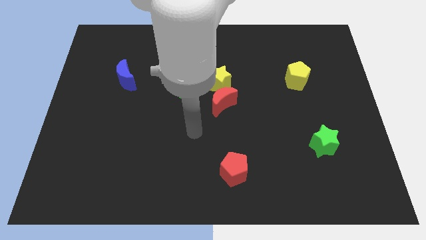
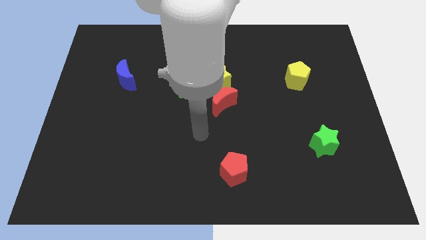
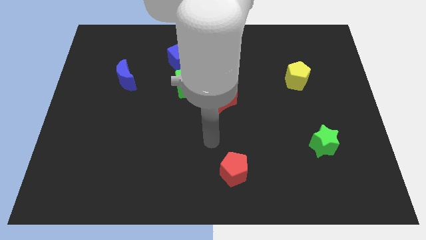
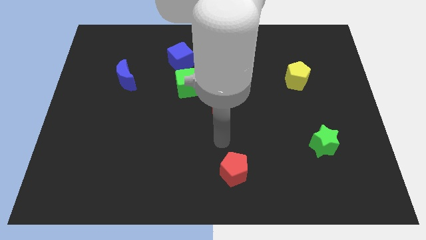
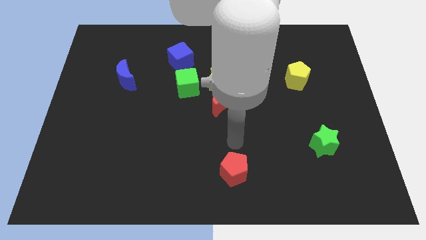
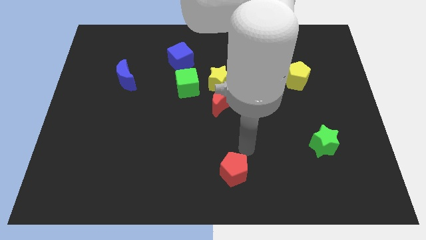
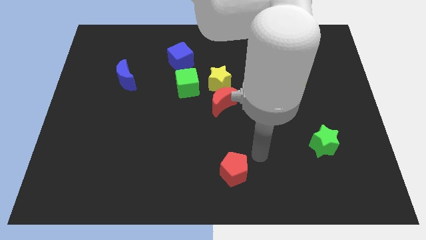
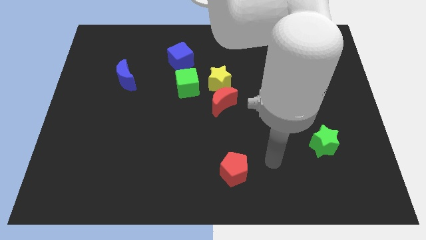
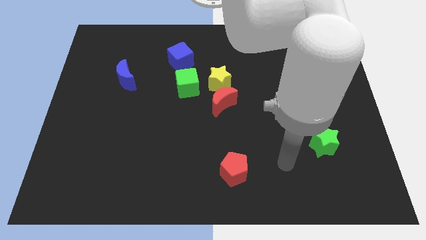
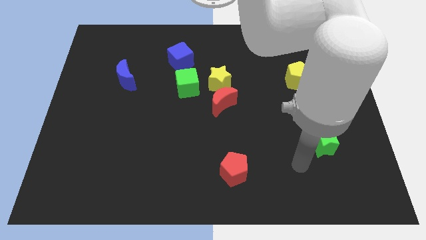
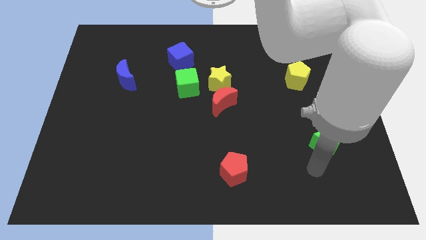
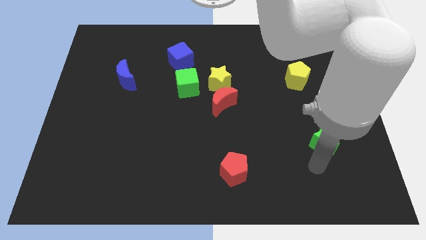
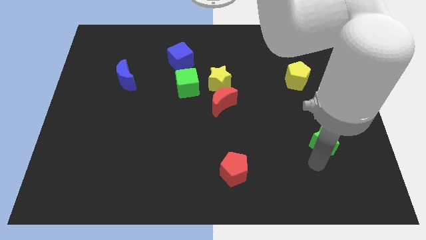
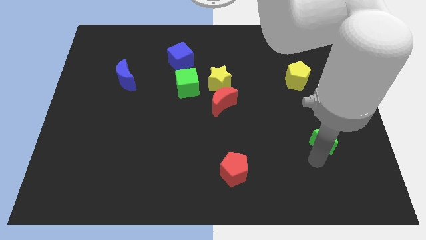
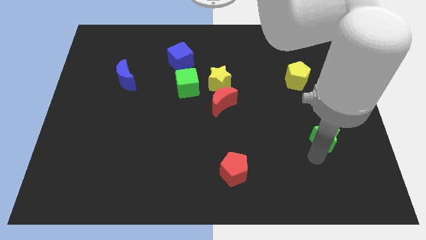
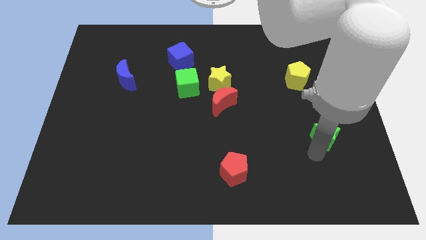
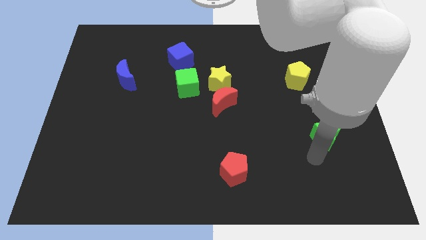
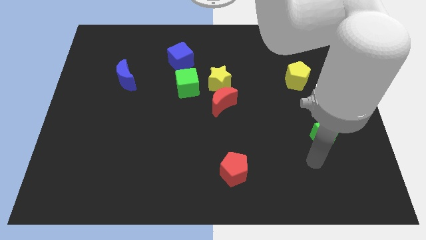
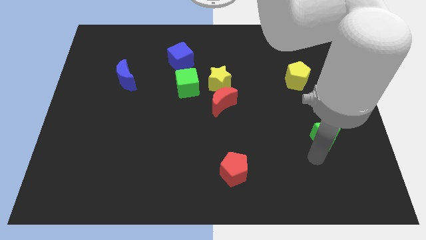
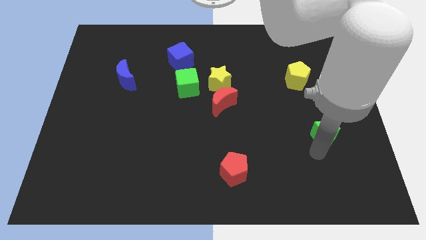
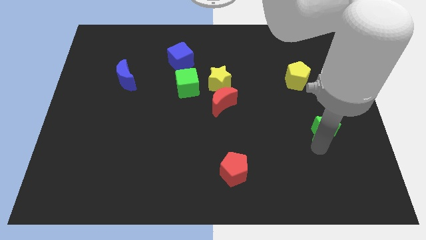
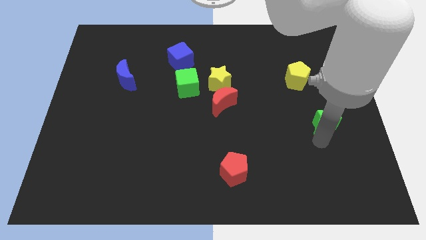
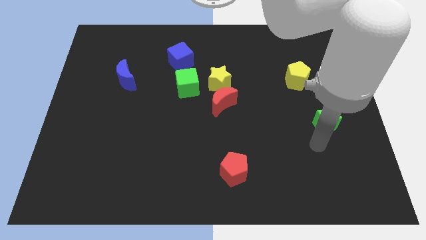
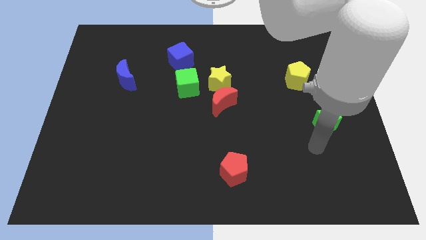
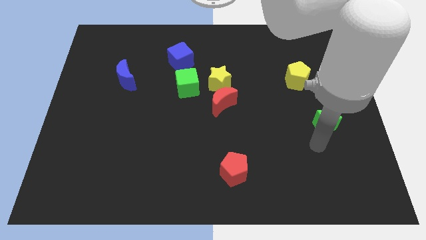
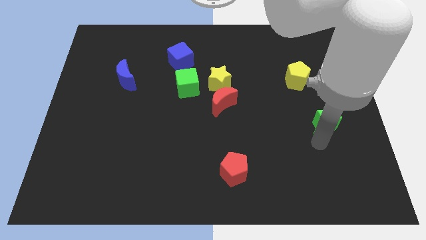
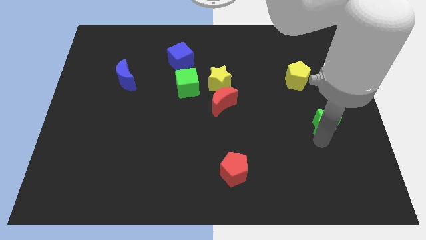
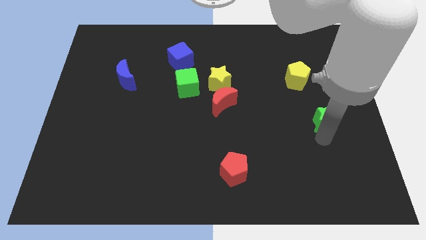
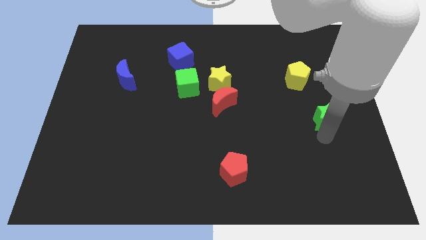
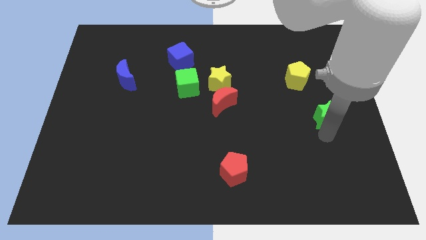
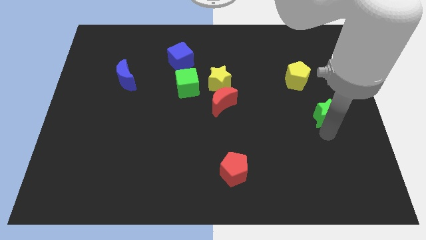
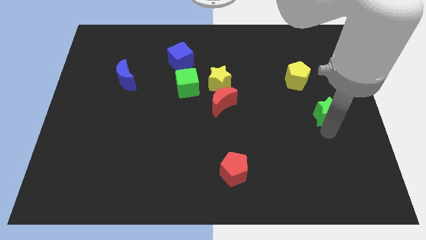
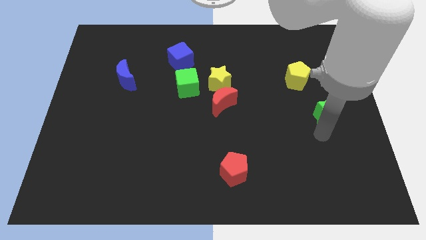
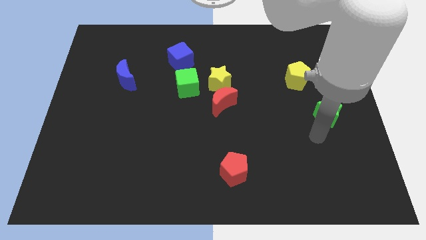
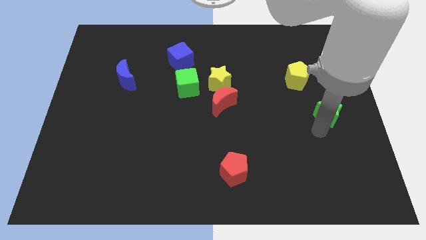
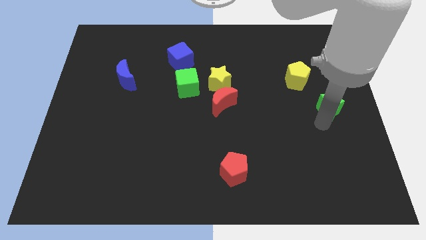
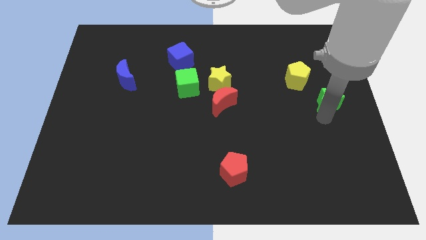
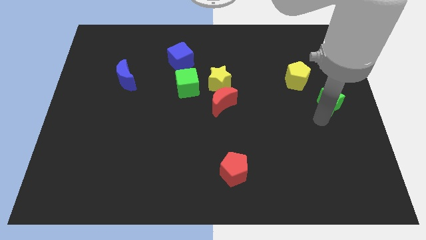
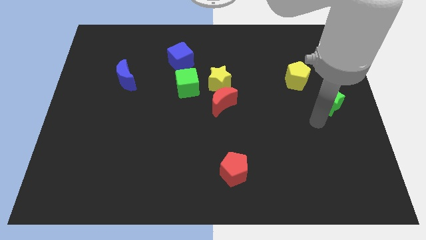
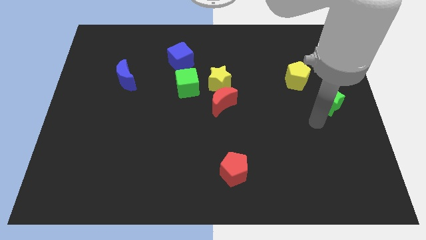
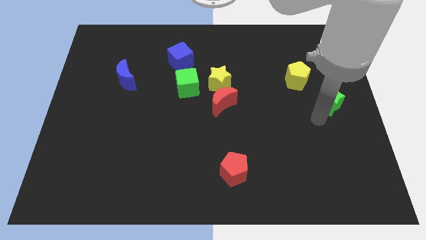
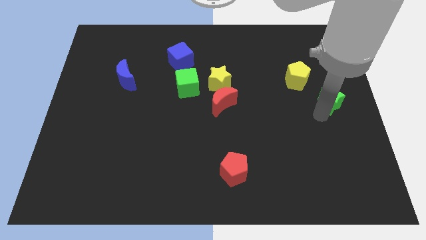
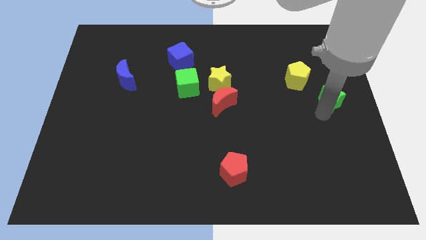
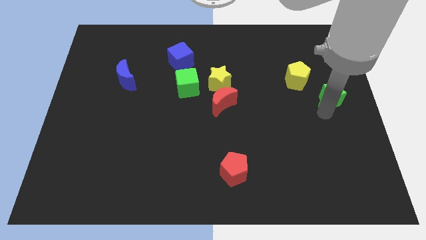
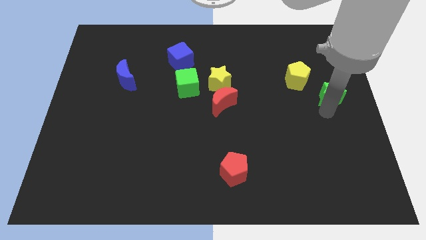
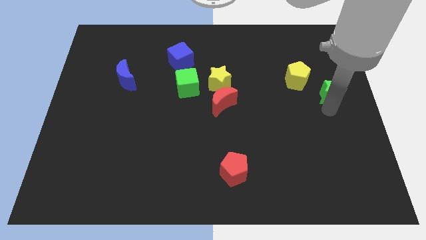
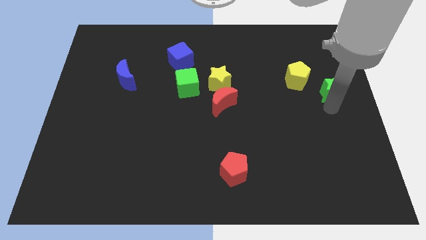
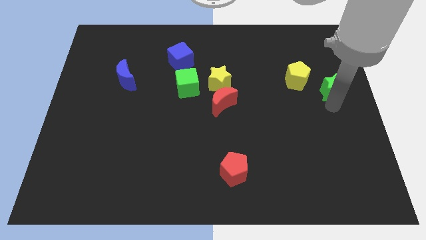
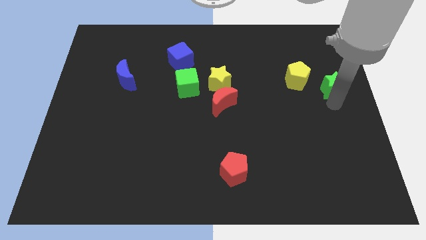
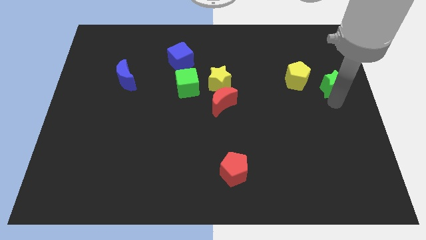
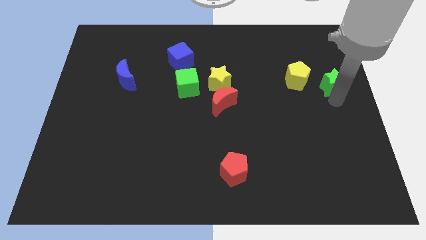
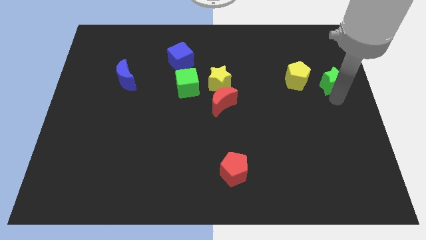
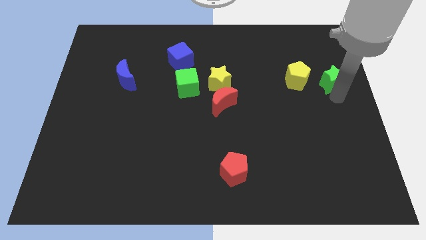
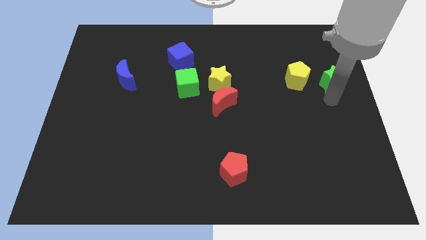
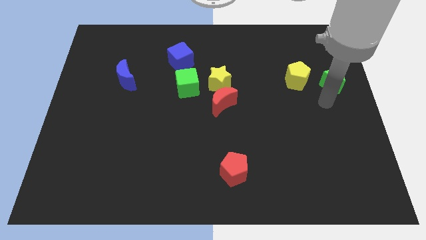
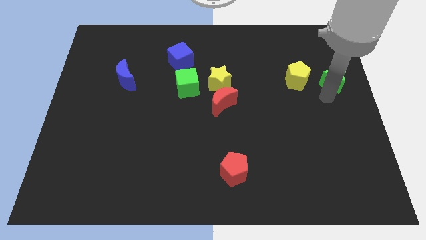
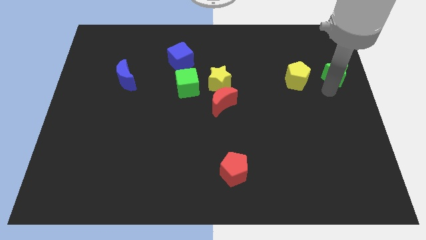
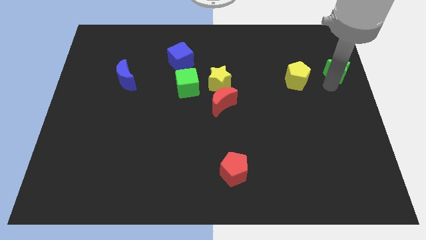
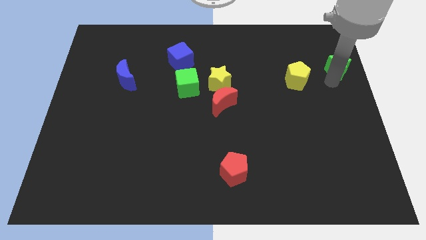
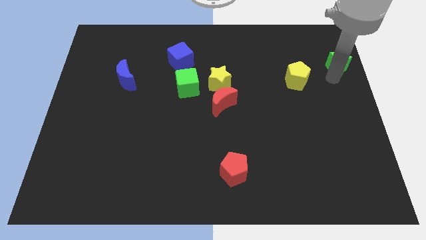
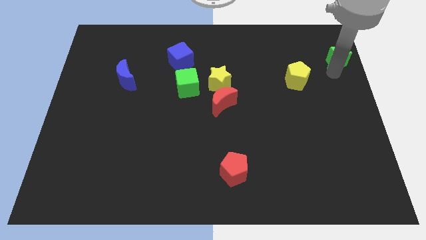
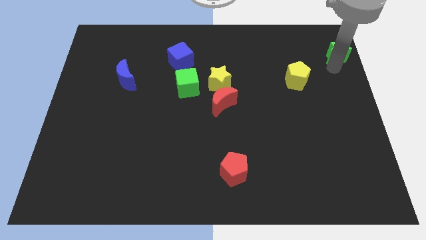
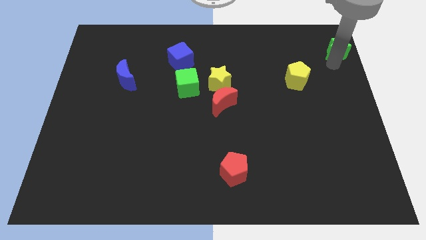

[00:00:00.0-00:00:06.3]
slide the green star to the top right of the board

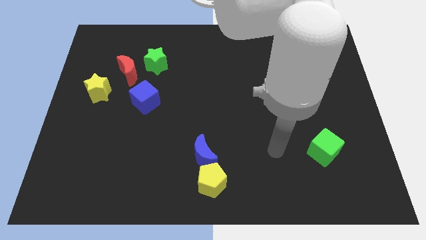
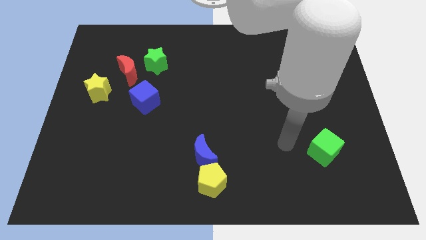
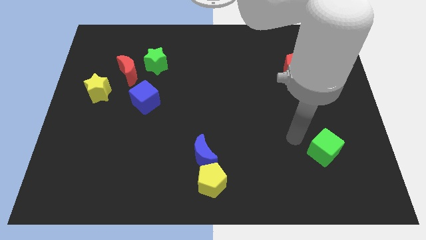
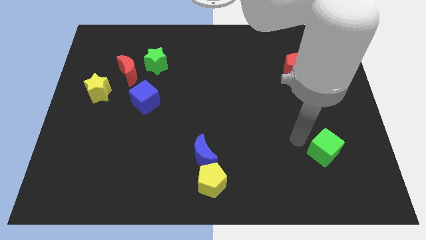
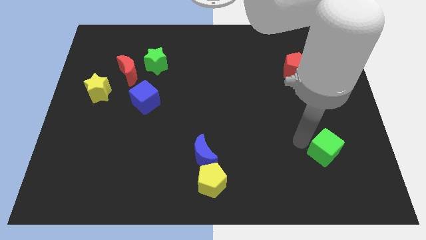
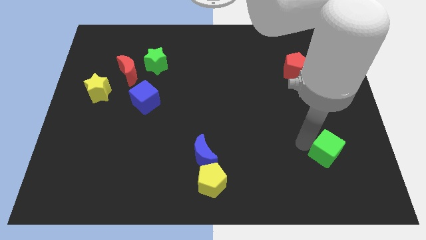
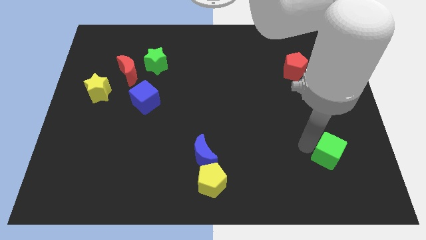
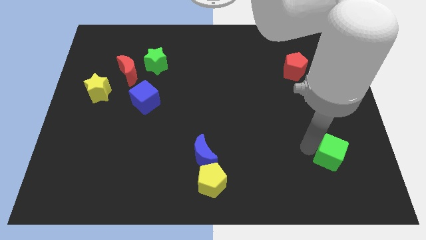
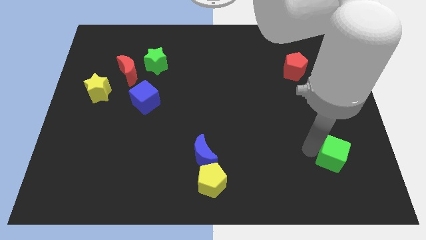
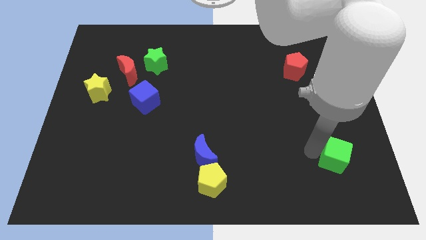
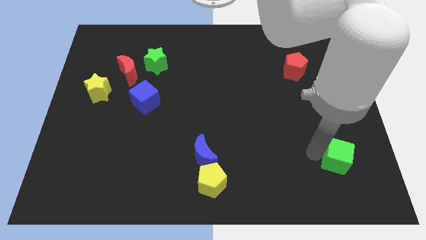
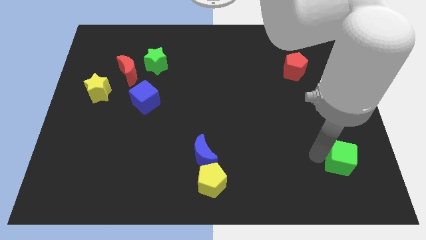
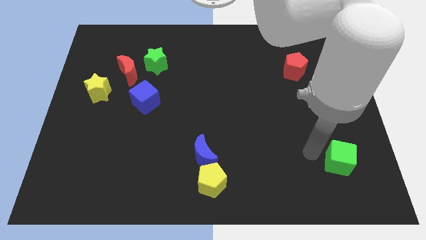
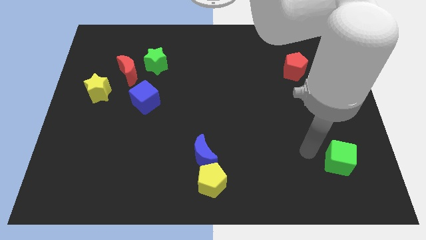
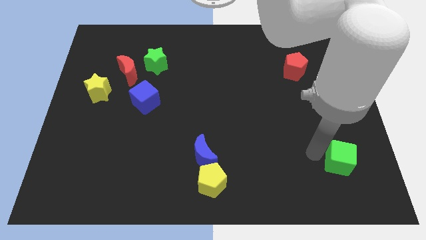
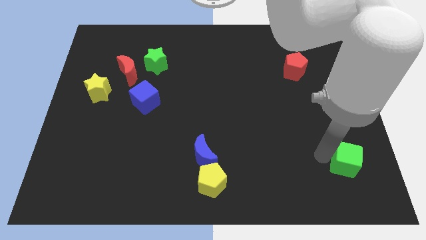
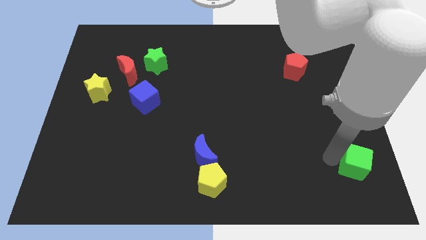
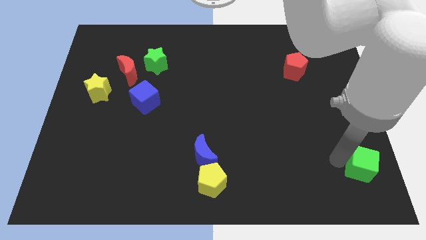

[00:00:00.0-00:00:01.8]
put the green cube to the bottom right of the board
